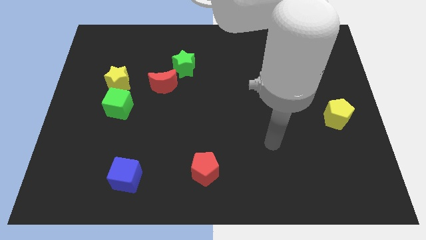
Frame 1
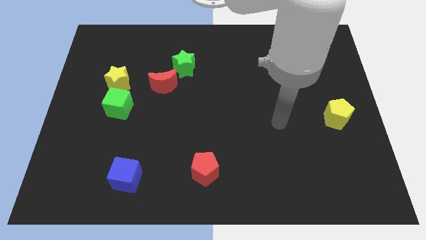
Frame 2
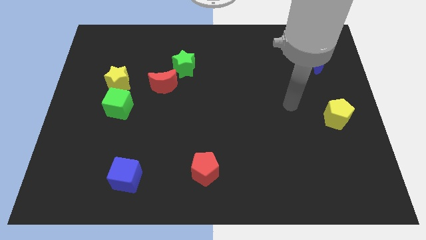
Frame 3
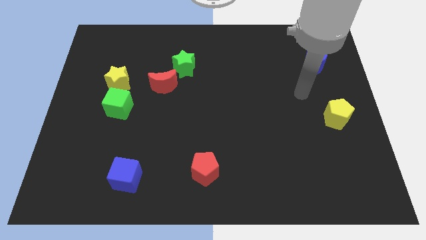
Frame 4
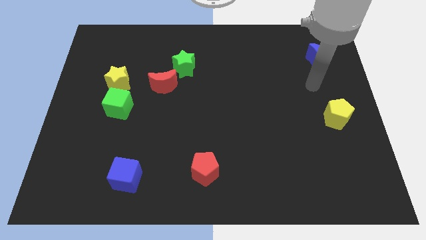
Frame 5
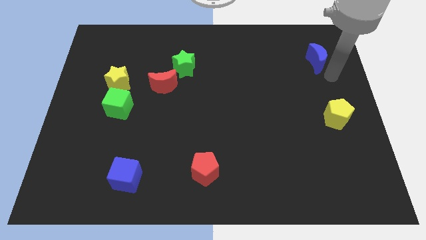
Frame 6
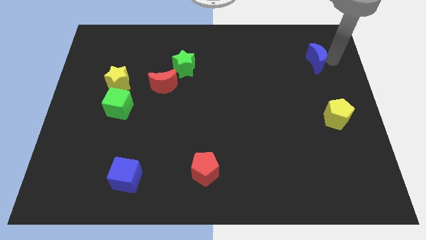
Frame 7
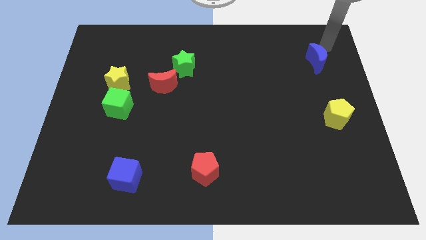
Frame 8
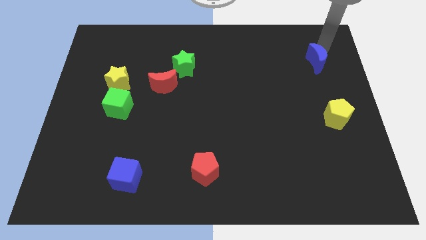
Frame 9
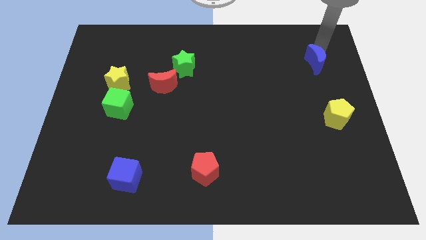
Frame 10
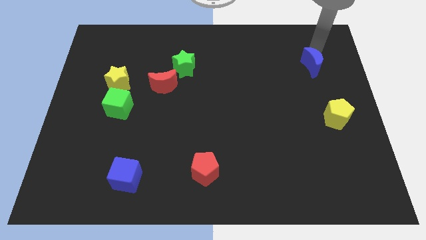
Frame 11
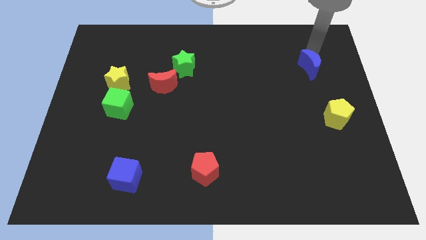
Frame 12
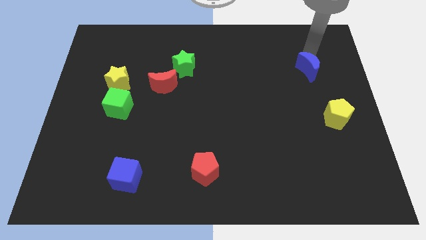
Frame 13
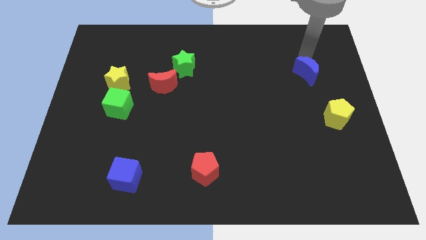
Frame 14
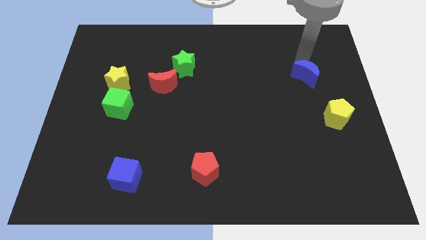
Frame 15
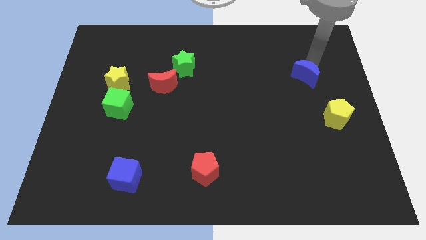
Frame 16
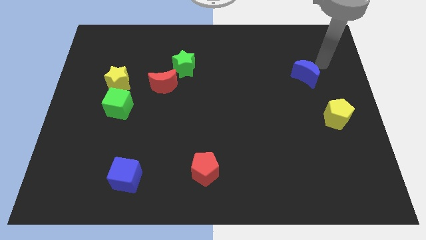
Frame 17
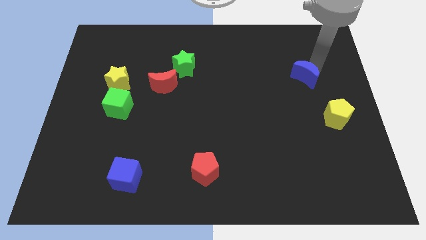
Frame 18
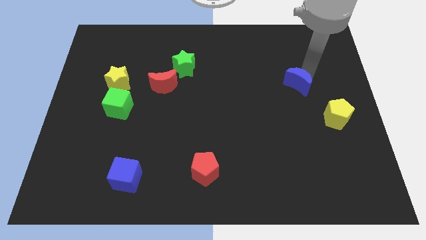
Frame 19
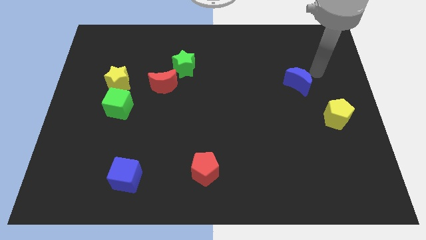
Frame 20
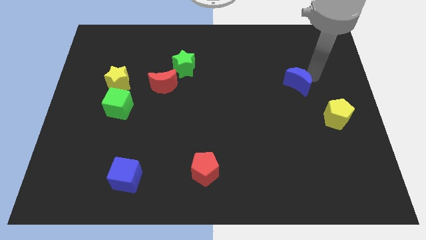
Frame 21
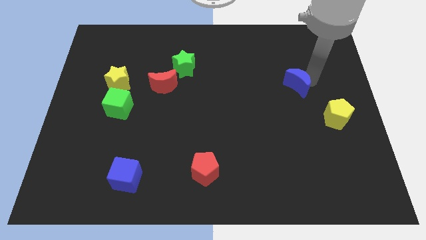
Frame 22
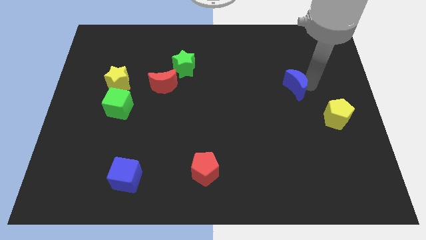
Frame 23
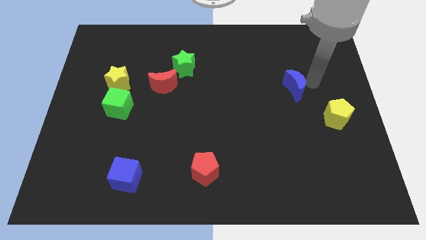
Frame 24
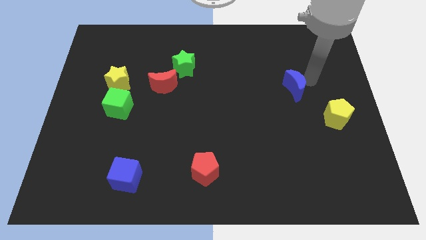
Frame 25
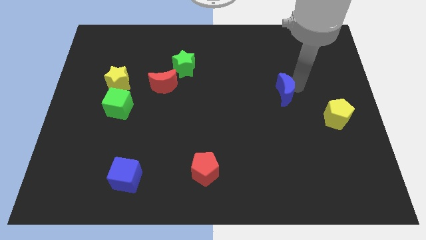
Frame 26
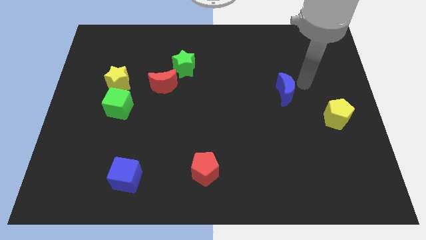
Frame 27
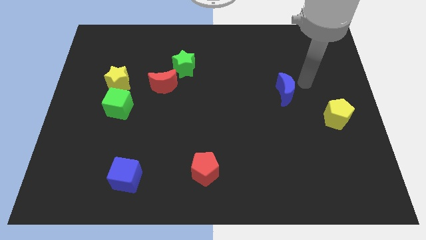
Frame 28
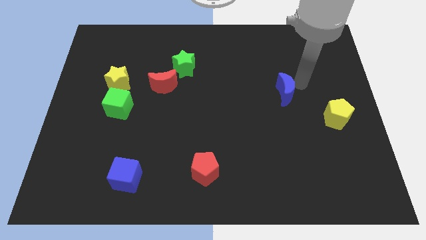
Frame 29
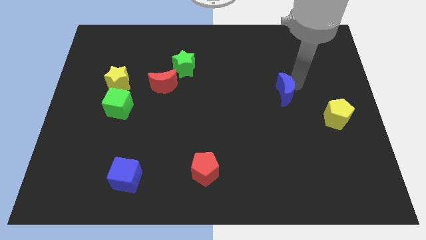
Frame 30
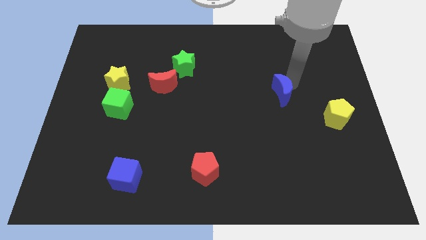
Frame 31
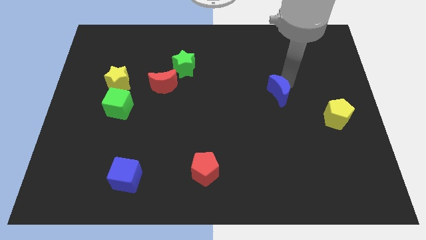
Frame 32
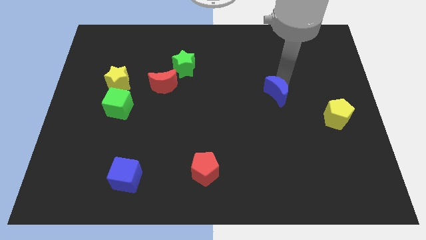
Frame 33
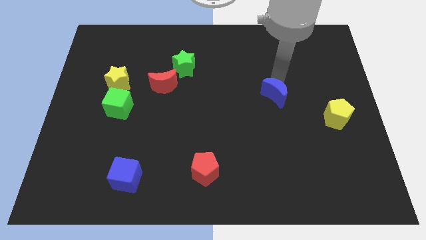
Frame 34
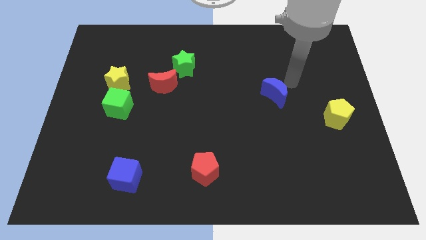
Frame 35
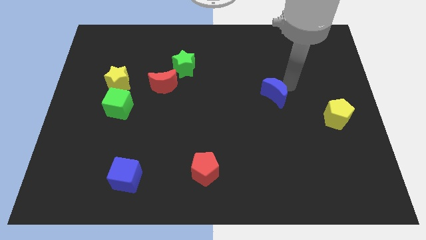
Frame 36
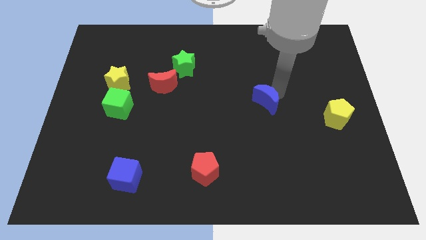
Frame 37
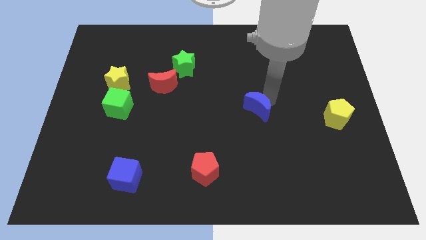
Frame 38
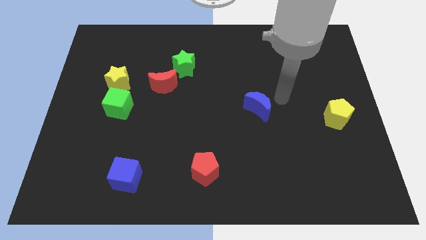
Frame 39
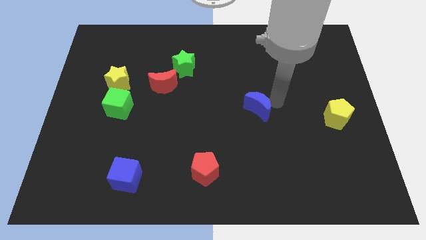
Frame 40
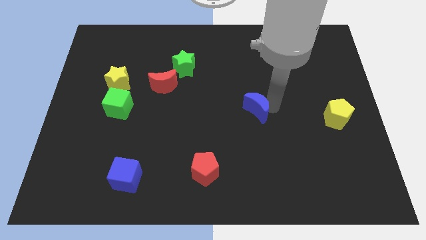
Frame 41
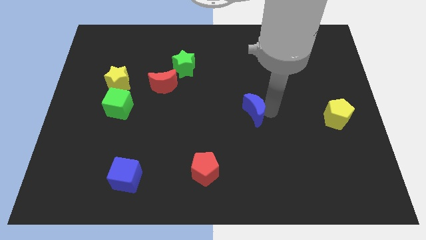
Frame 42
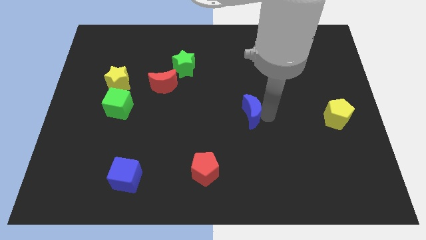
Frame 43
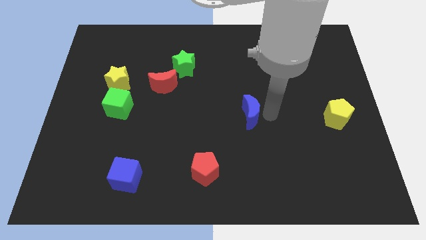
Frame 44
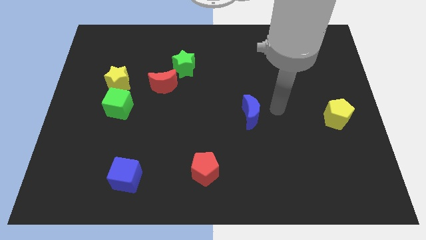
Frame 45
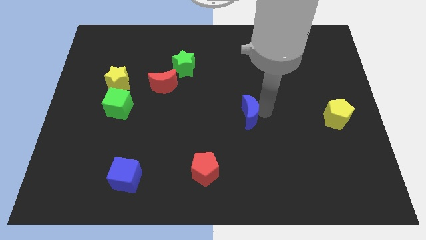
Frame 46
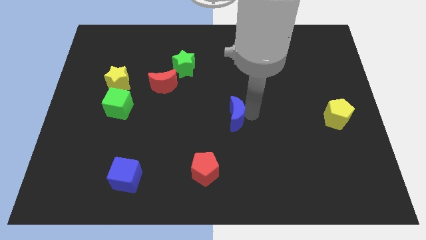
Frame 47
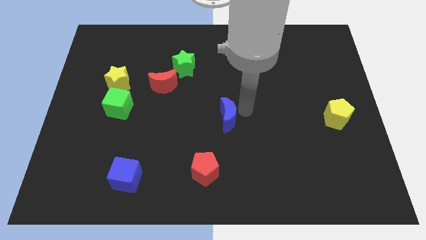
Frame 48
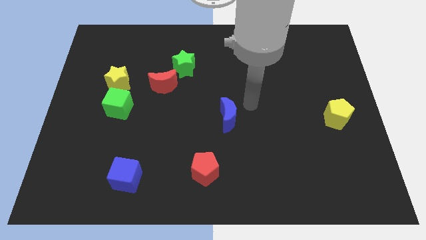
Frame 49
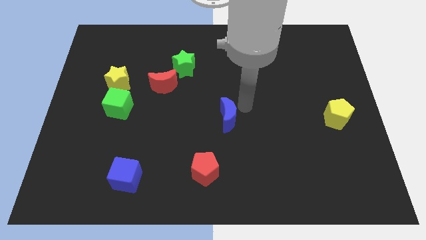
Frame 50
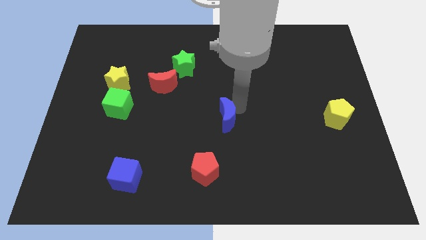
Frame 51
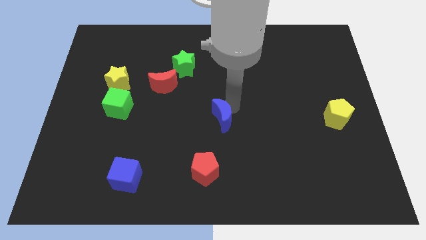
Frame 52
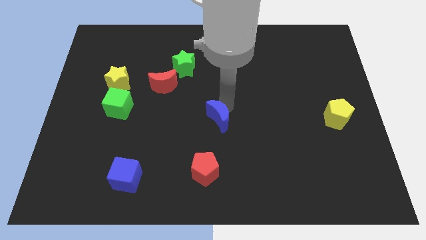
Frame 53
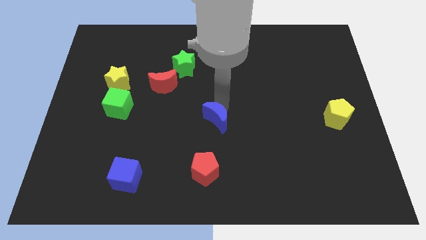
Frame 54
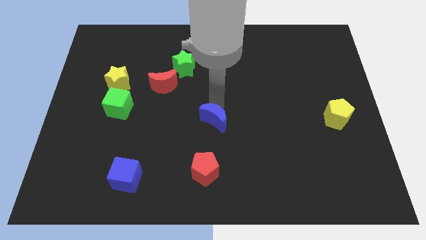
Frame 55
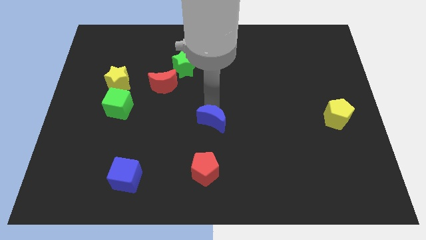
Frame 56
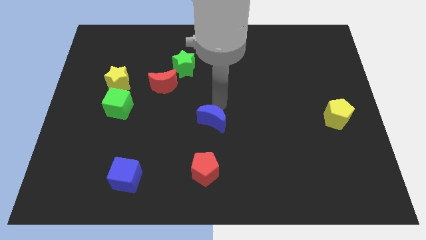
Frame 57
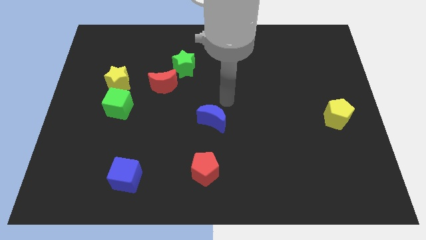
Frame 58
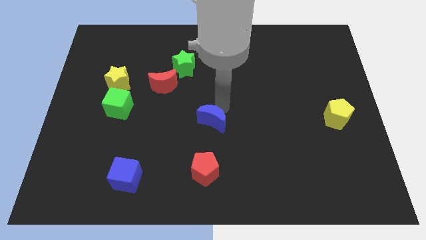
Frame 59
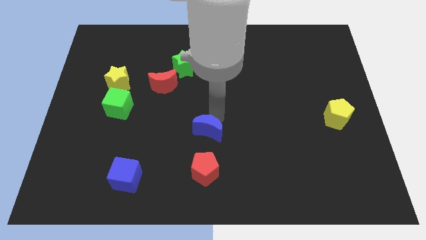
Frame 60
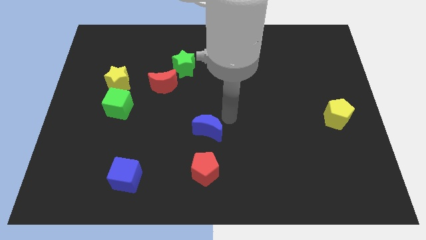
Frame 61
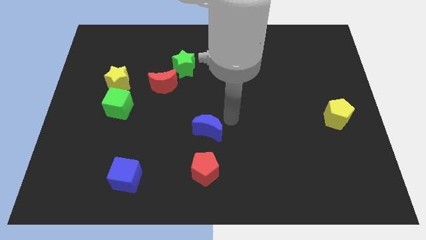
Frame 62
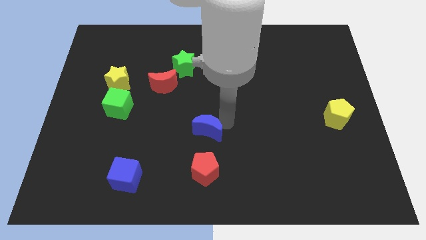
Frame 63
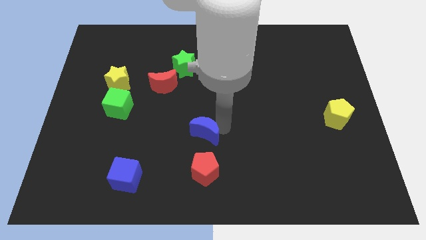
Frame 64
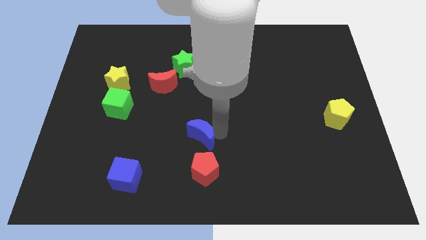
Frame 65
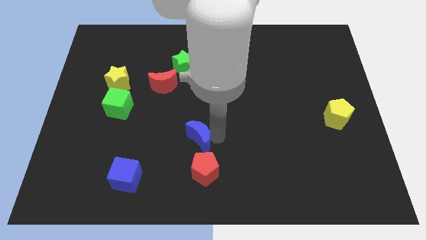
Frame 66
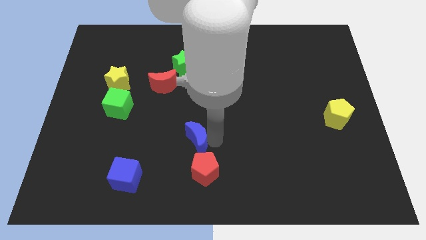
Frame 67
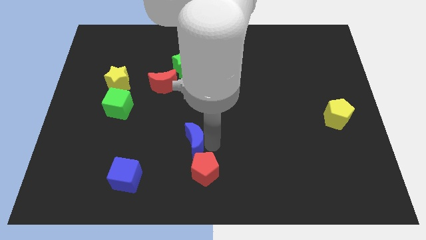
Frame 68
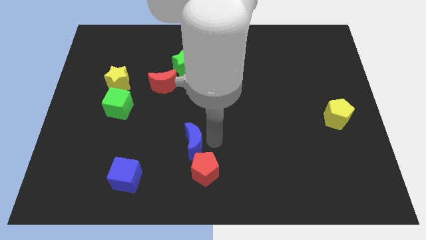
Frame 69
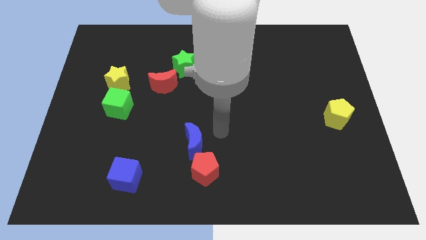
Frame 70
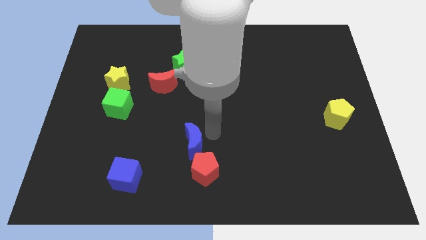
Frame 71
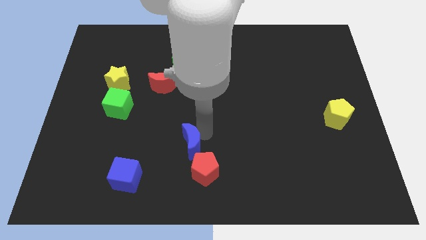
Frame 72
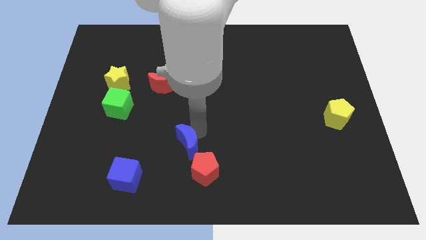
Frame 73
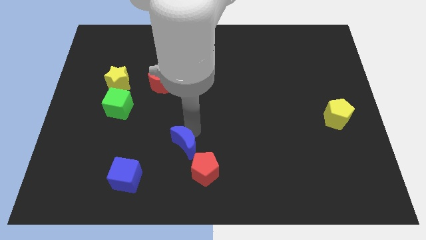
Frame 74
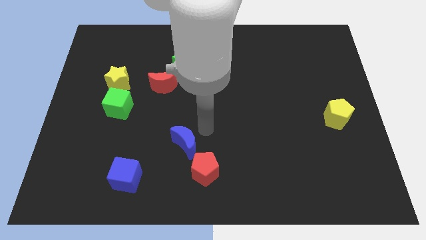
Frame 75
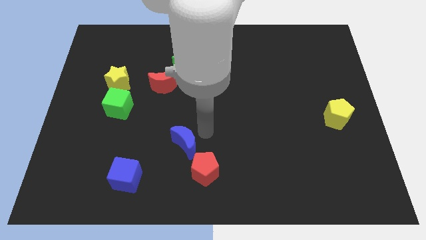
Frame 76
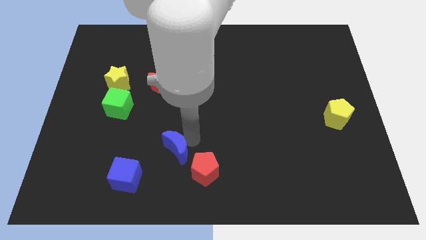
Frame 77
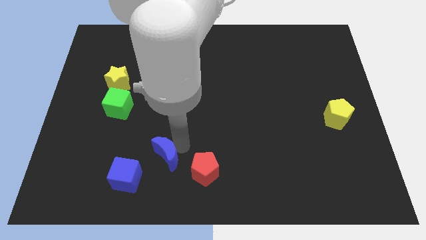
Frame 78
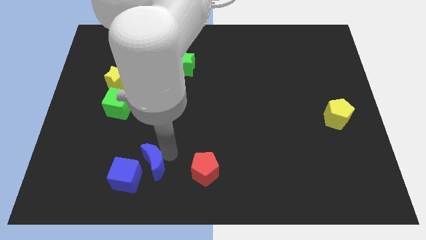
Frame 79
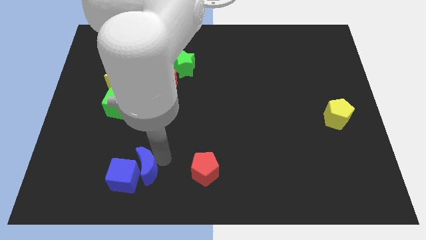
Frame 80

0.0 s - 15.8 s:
push the blue moon to the blue cube
